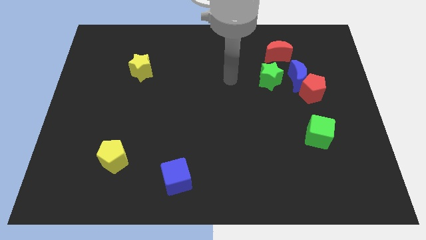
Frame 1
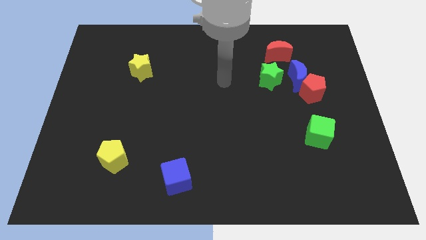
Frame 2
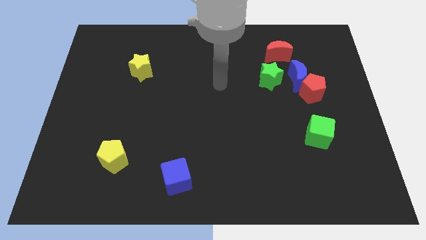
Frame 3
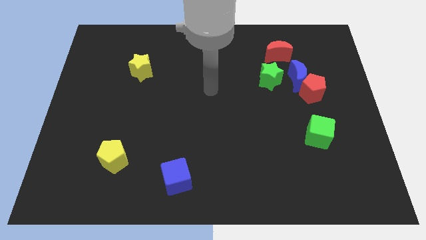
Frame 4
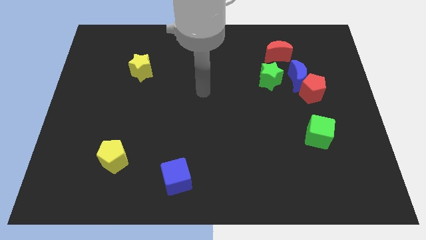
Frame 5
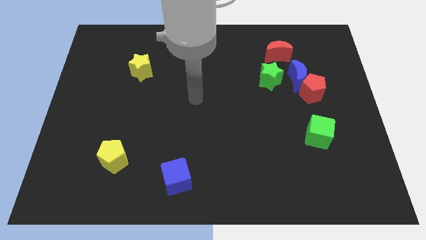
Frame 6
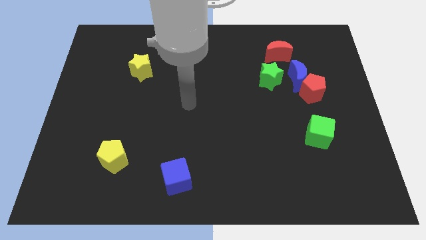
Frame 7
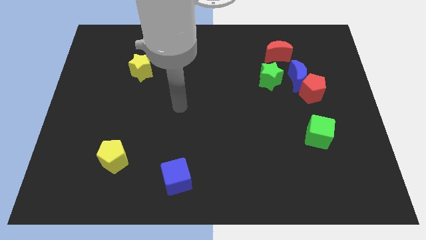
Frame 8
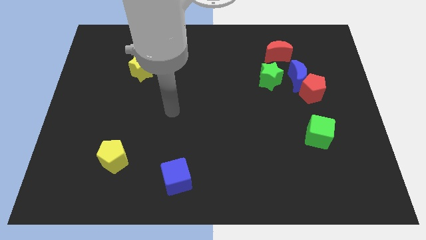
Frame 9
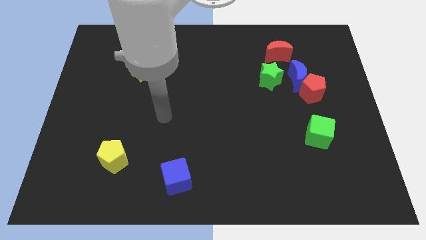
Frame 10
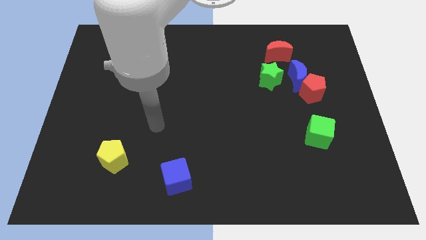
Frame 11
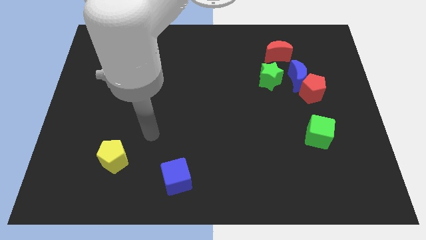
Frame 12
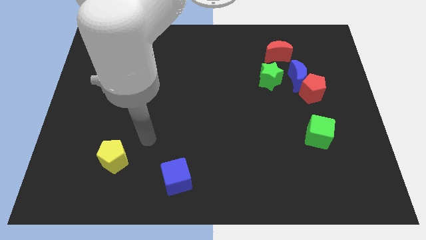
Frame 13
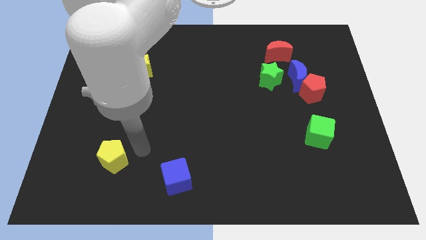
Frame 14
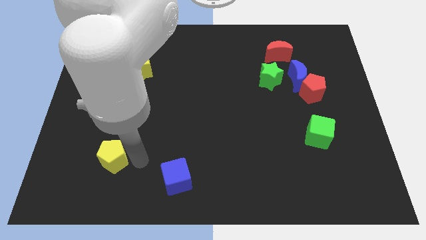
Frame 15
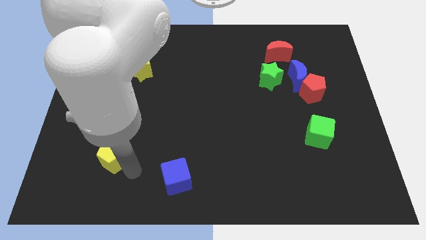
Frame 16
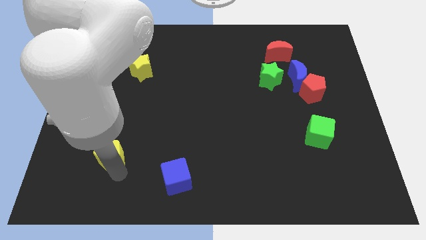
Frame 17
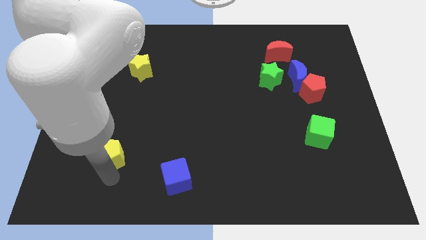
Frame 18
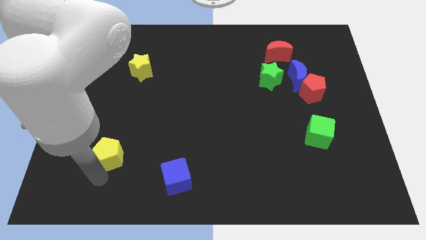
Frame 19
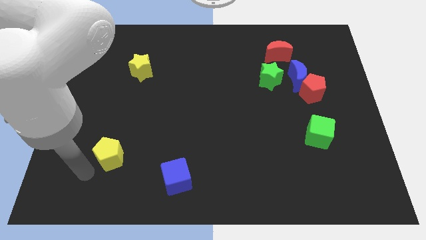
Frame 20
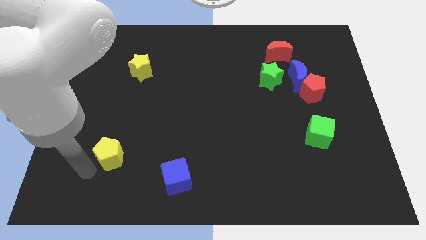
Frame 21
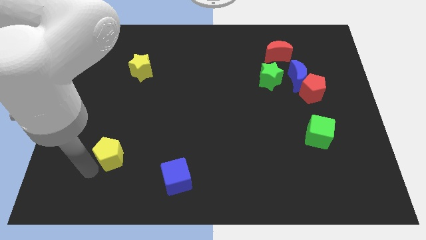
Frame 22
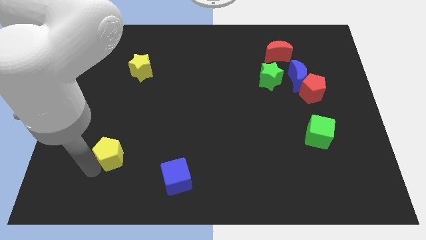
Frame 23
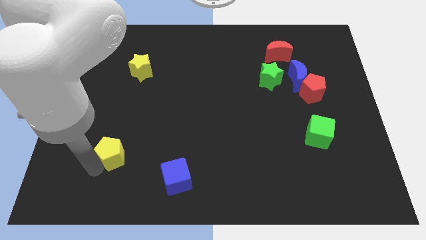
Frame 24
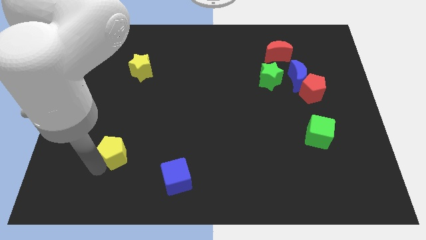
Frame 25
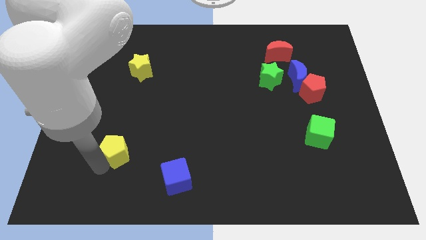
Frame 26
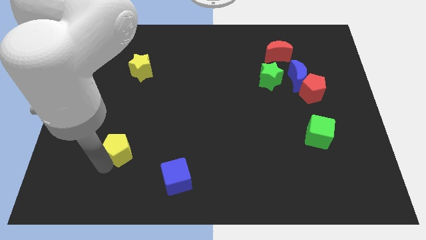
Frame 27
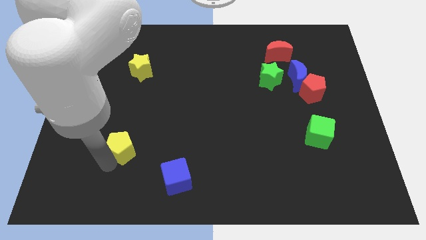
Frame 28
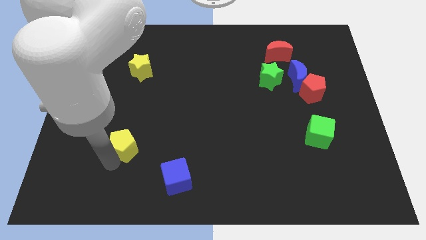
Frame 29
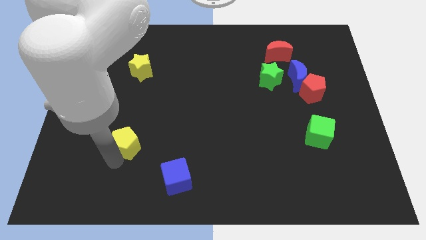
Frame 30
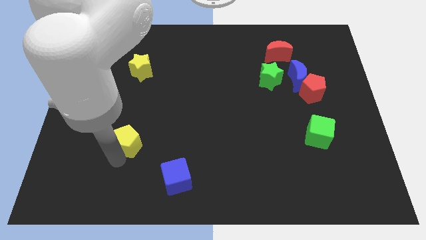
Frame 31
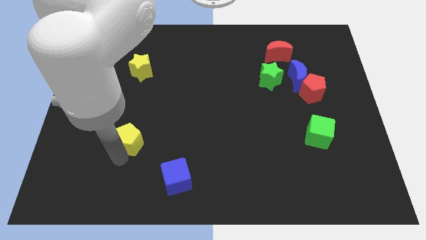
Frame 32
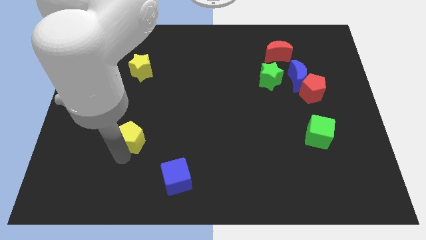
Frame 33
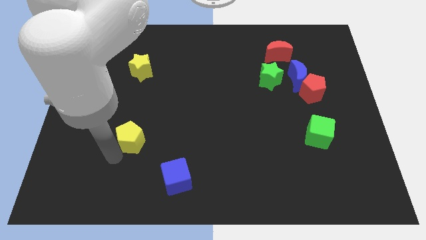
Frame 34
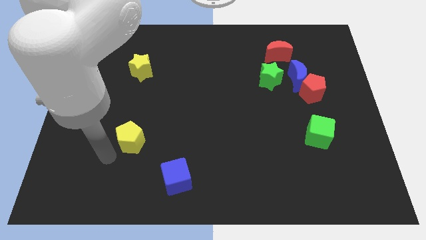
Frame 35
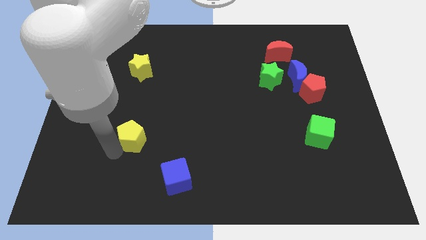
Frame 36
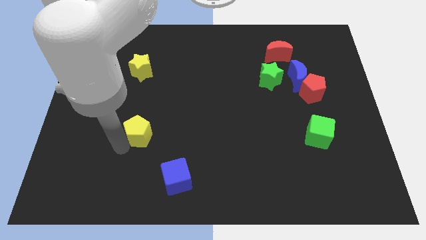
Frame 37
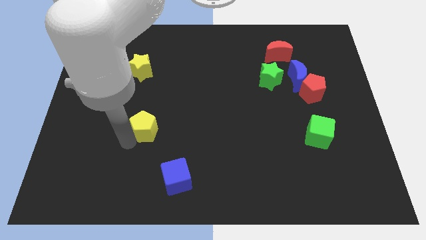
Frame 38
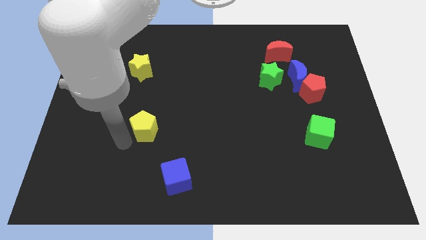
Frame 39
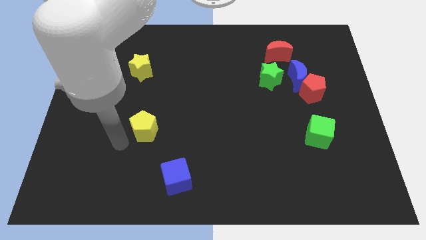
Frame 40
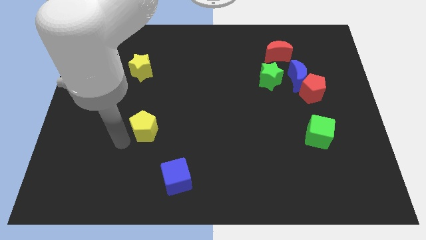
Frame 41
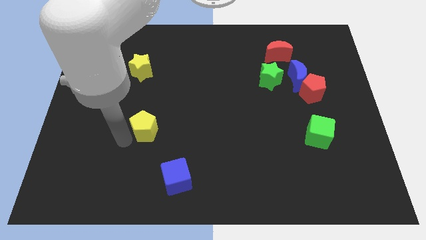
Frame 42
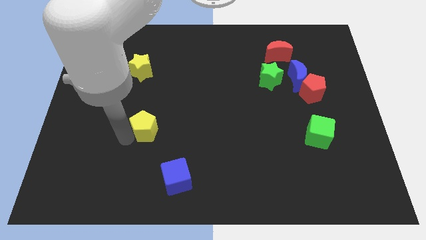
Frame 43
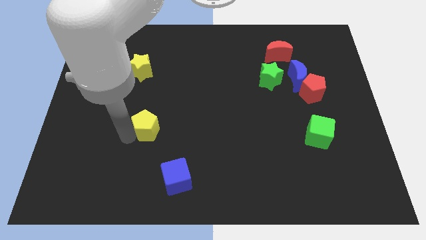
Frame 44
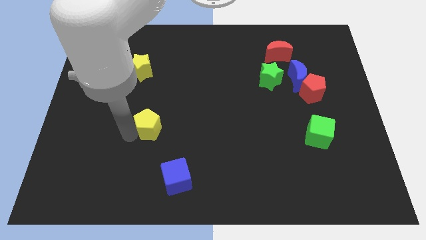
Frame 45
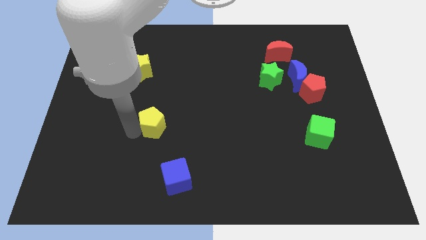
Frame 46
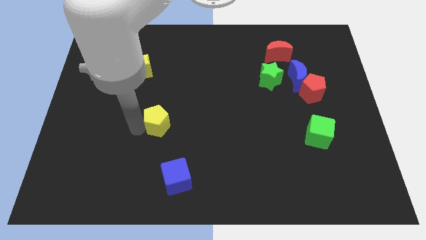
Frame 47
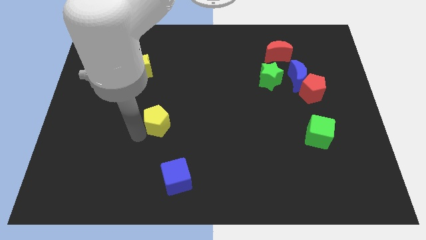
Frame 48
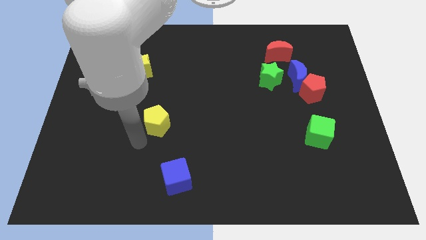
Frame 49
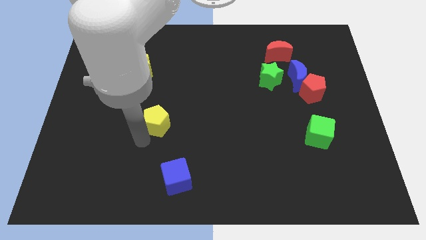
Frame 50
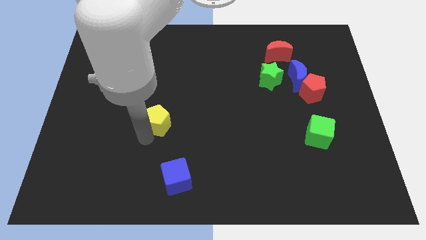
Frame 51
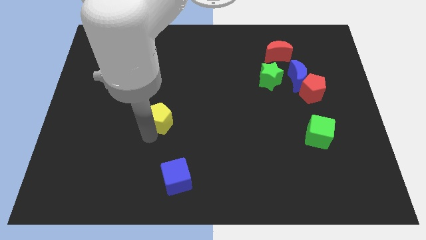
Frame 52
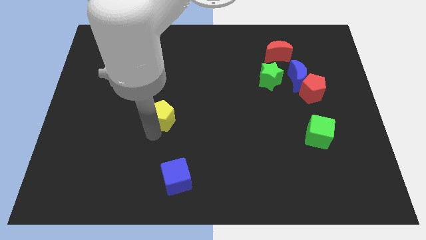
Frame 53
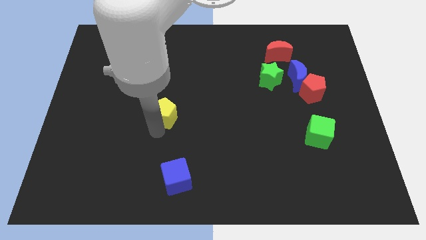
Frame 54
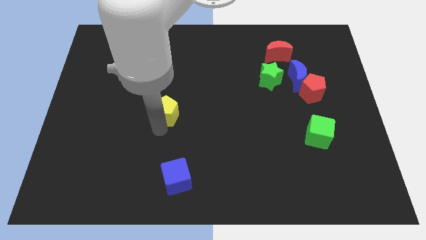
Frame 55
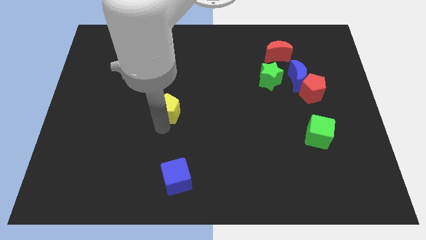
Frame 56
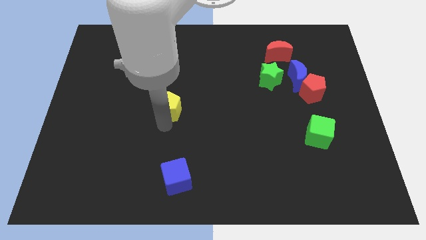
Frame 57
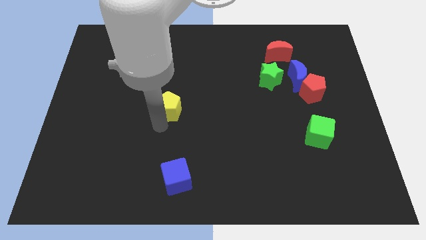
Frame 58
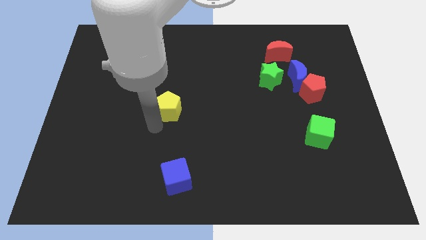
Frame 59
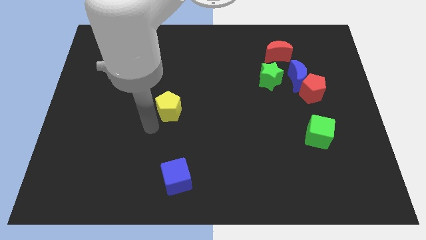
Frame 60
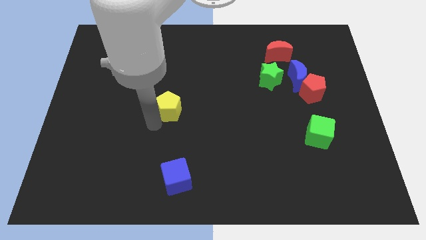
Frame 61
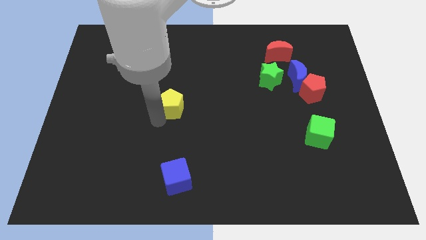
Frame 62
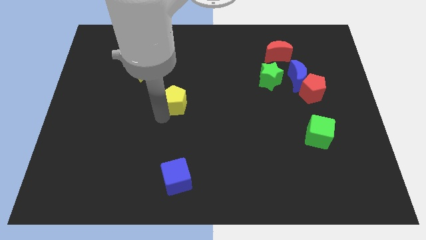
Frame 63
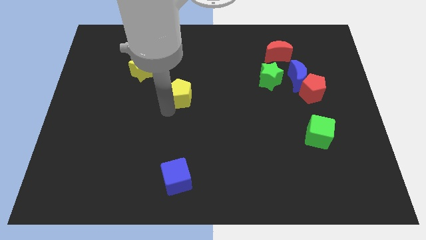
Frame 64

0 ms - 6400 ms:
slide the yellow pentagon upwards and then to the right

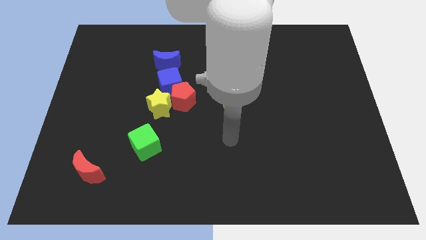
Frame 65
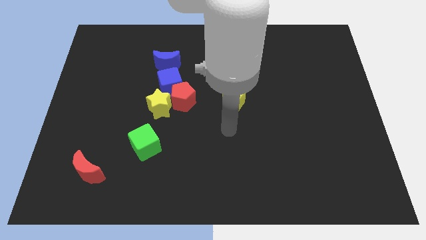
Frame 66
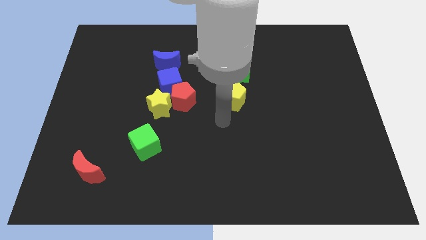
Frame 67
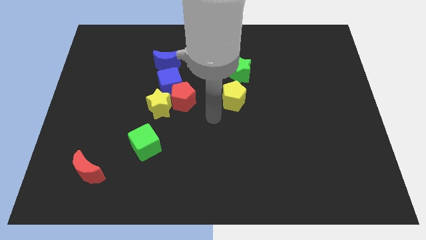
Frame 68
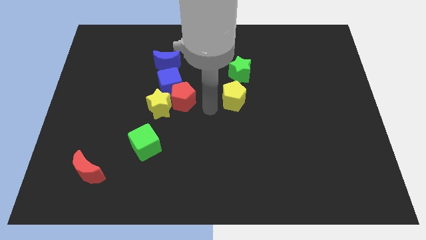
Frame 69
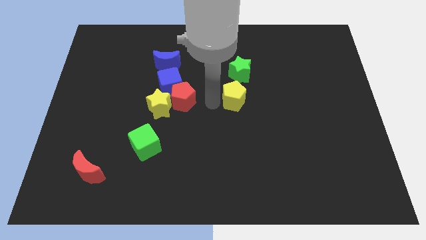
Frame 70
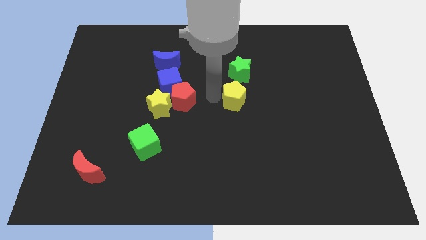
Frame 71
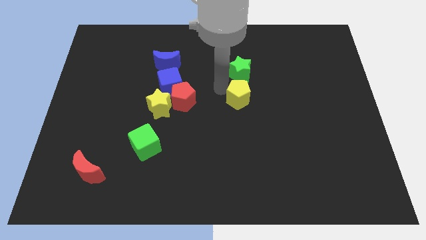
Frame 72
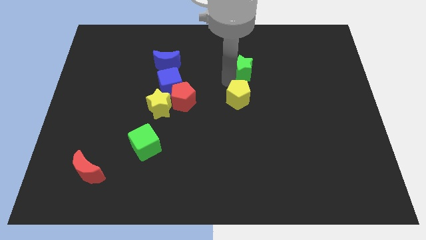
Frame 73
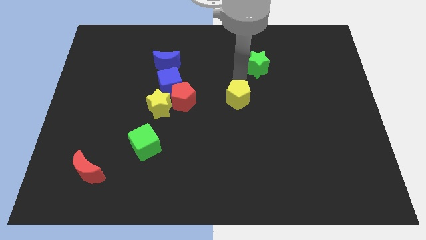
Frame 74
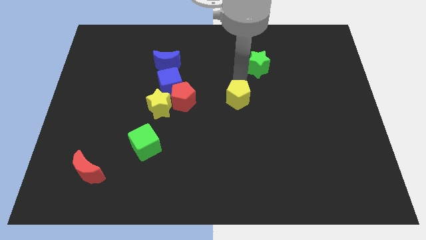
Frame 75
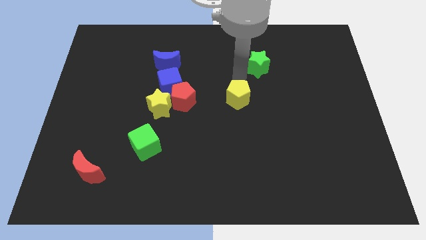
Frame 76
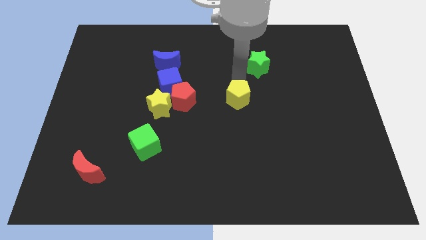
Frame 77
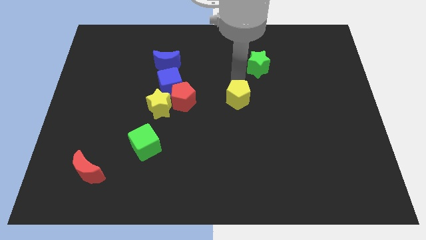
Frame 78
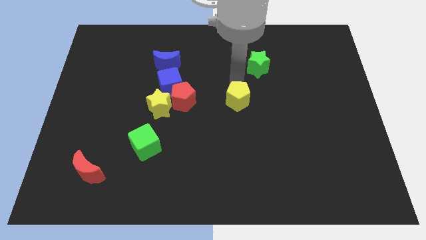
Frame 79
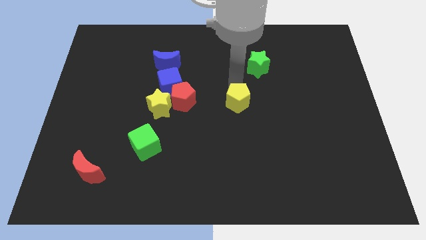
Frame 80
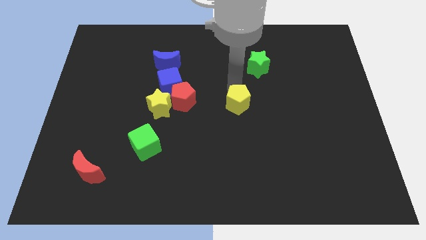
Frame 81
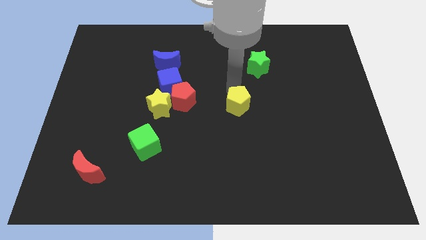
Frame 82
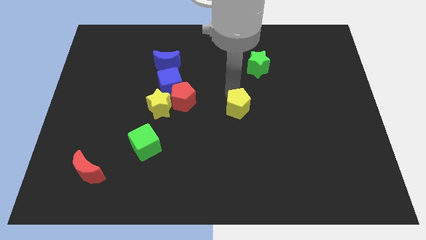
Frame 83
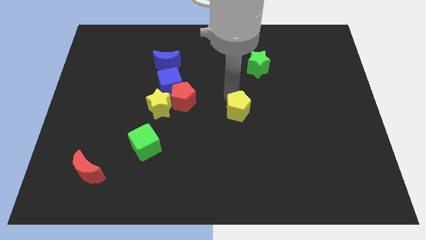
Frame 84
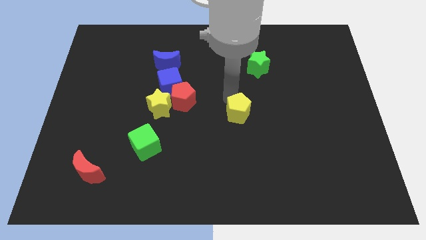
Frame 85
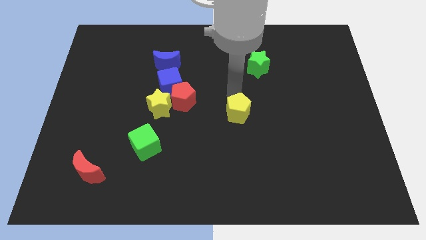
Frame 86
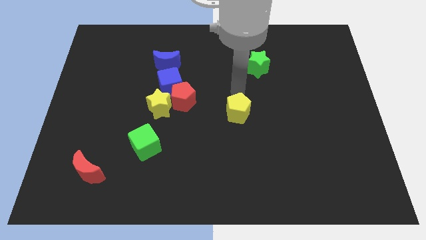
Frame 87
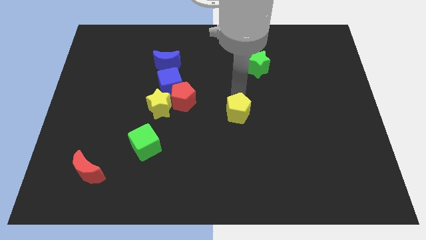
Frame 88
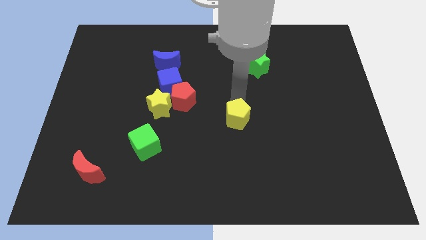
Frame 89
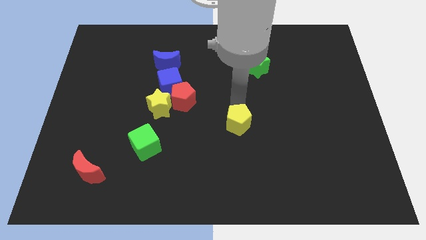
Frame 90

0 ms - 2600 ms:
slide the yellow pentagon a little down
